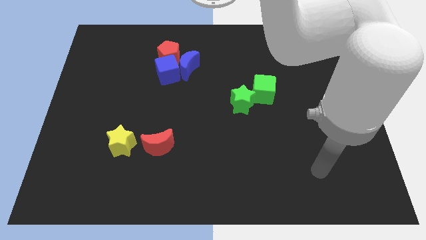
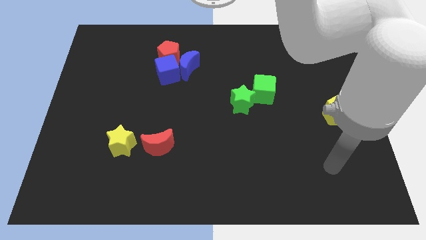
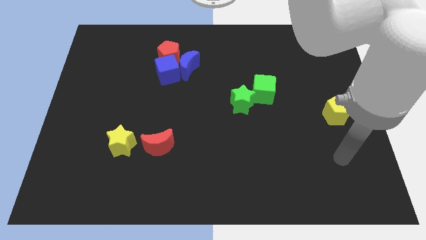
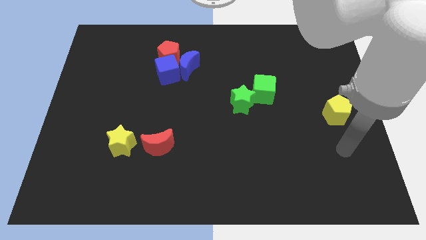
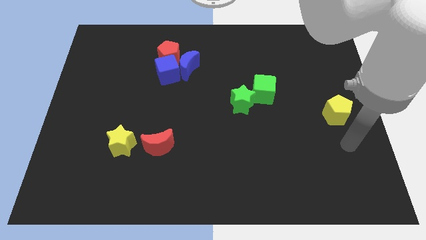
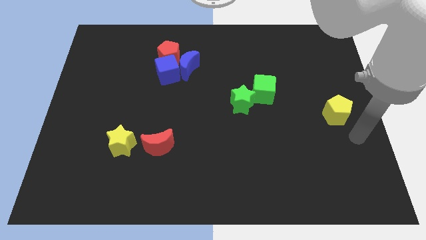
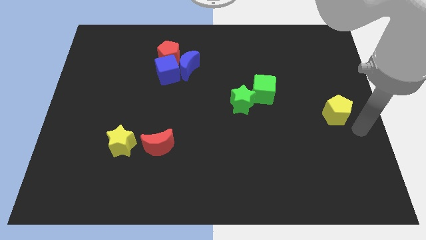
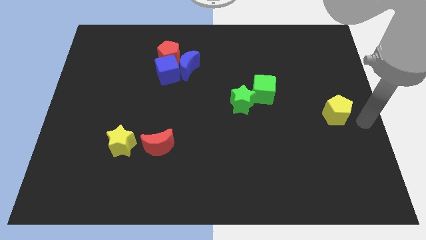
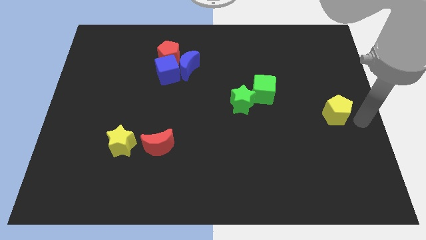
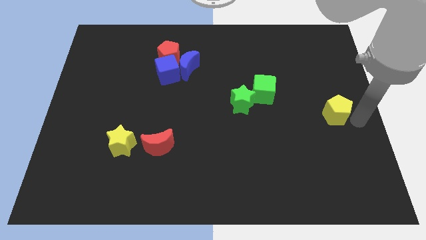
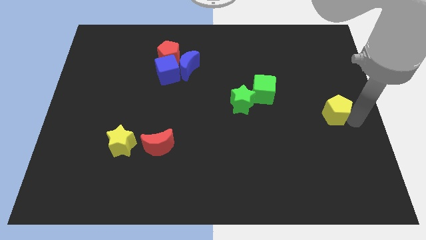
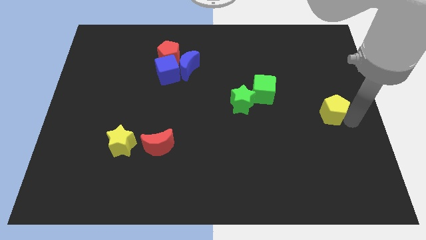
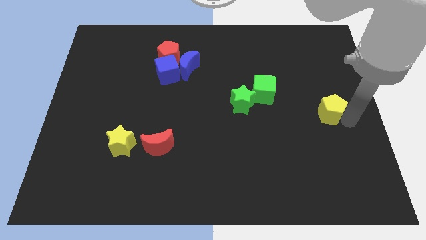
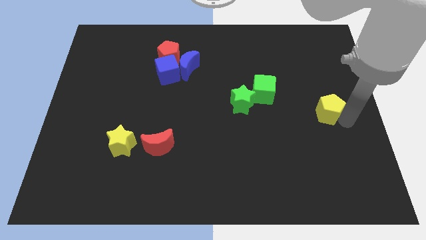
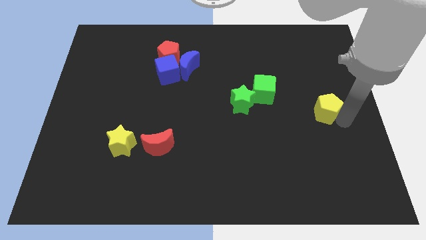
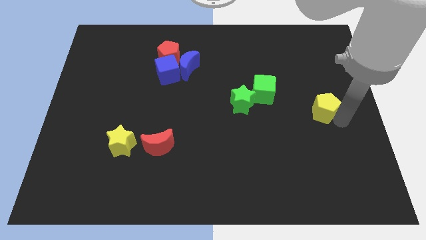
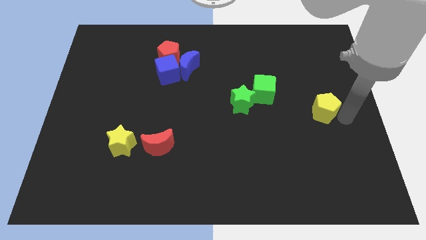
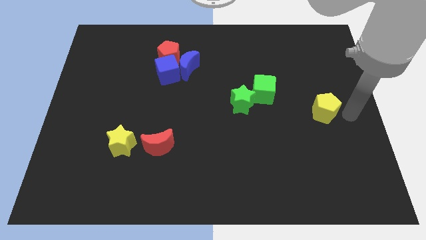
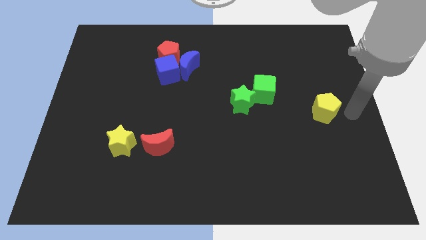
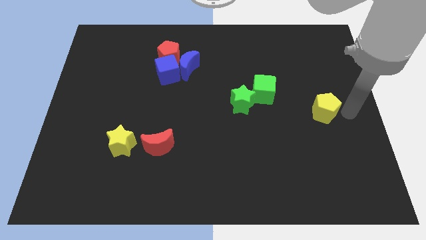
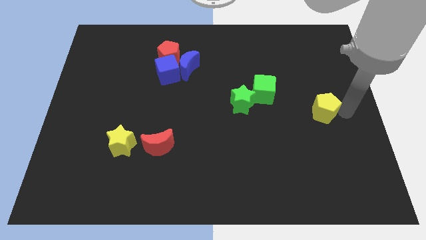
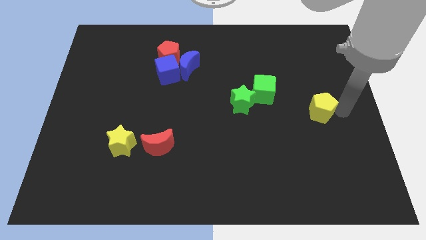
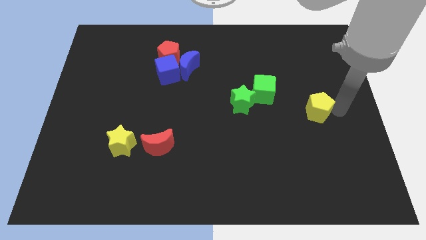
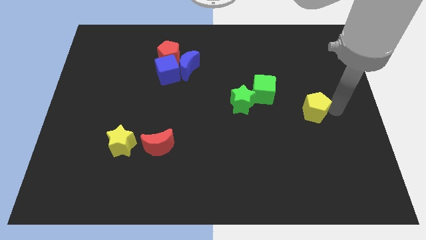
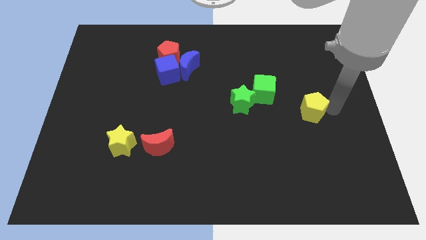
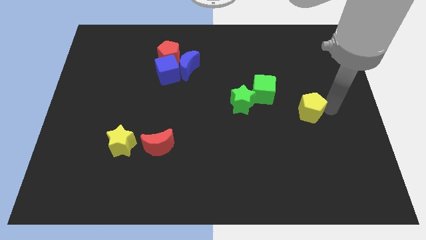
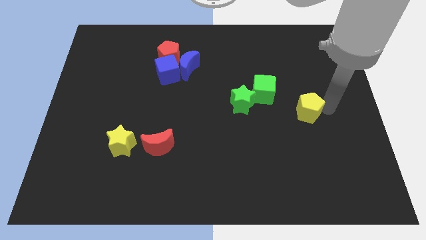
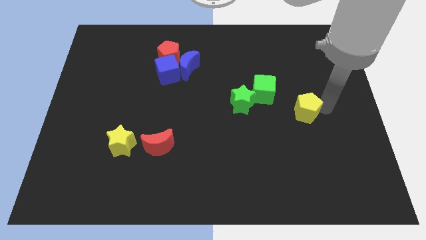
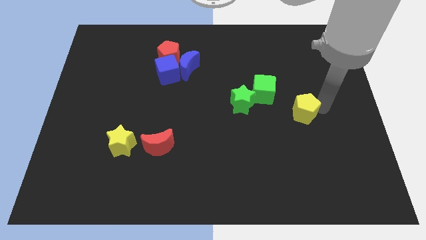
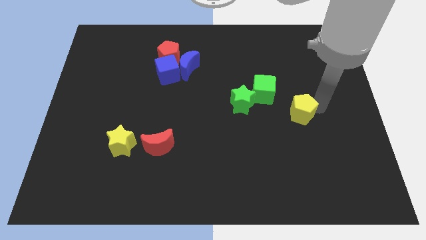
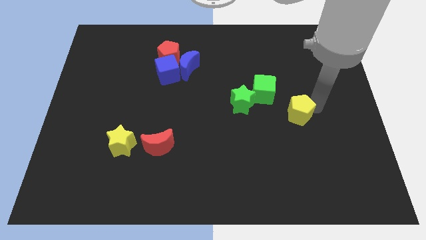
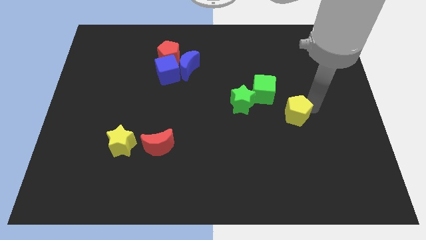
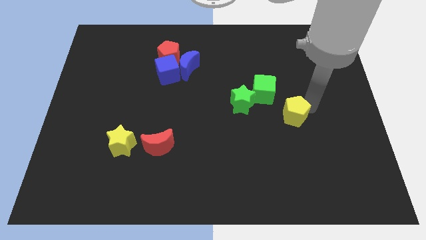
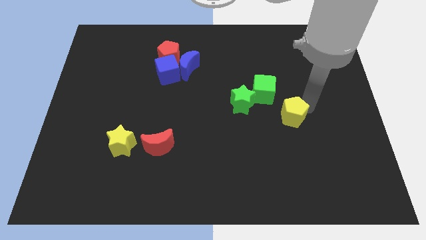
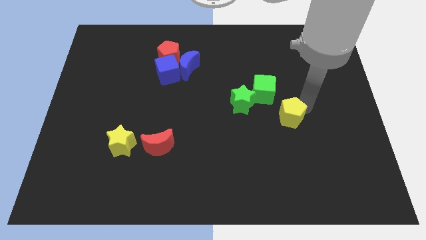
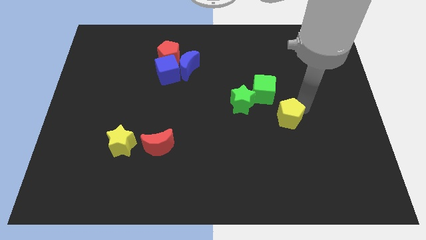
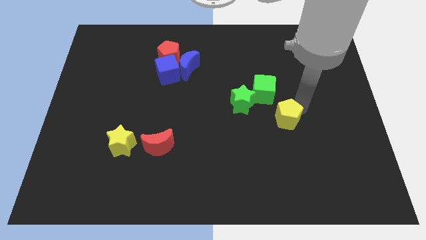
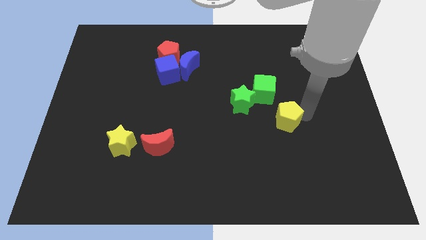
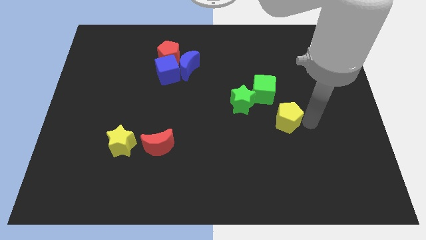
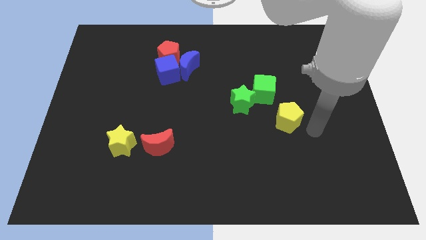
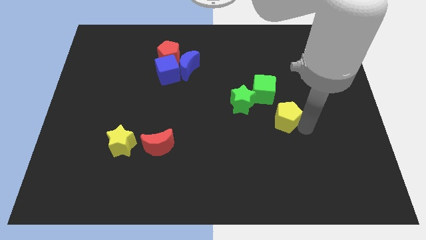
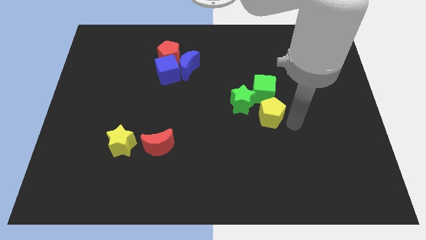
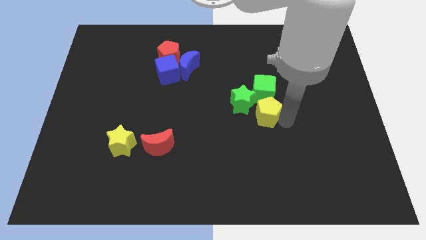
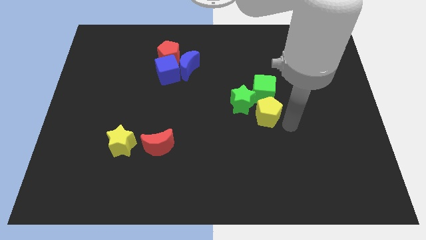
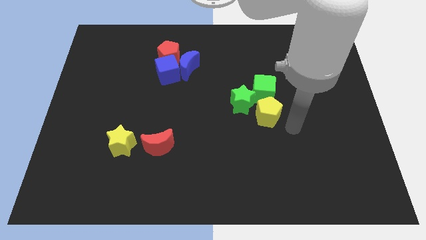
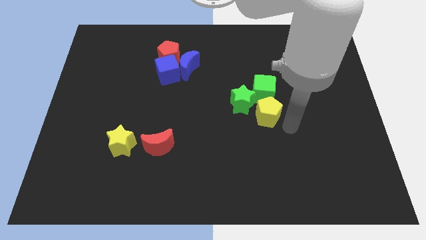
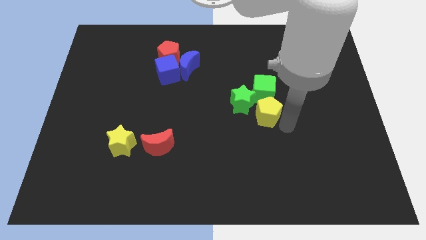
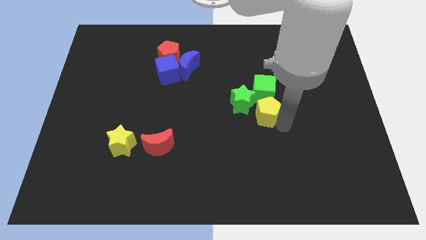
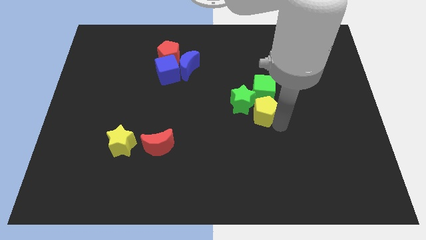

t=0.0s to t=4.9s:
slide the yellow pentagon next to the green star

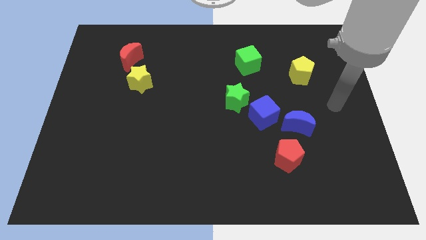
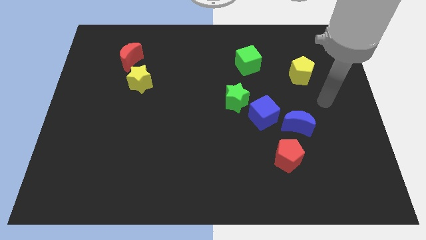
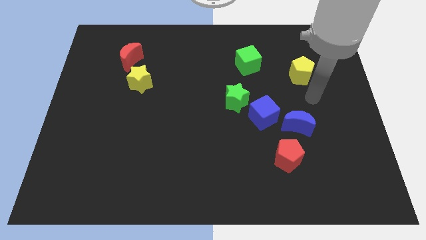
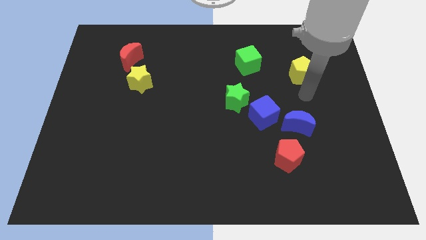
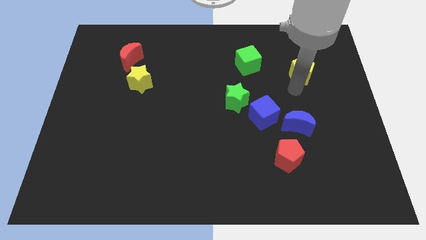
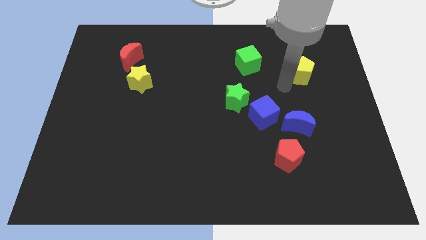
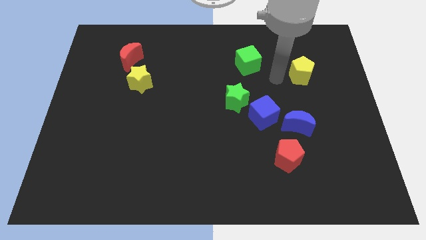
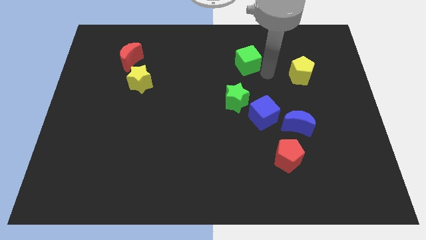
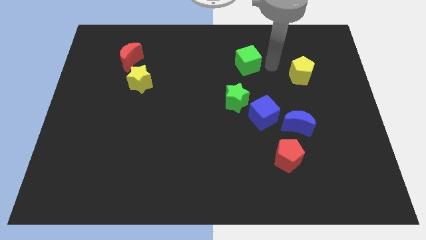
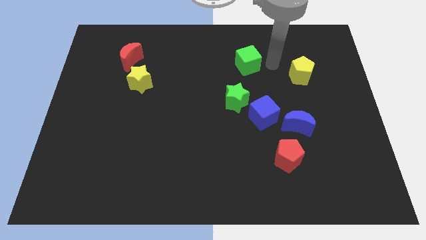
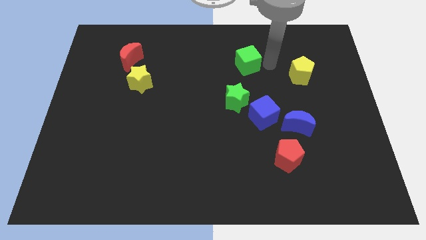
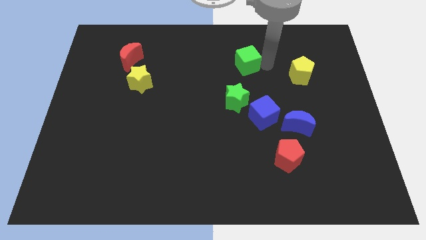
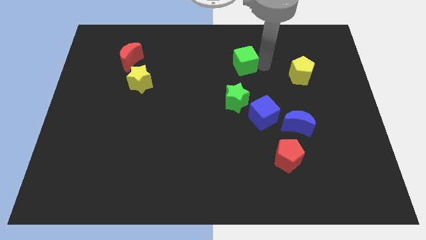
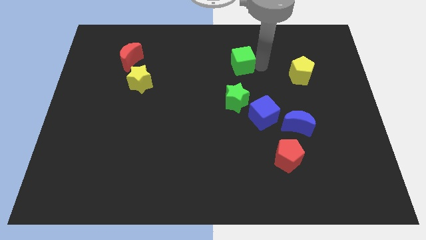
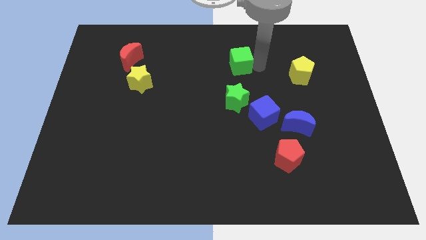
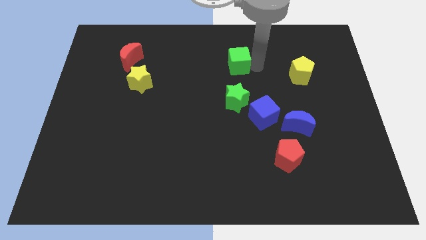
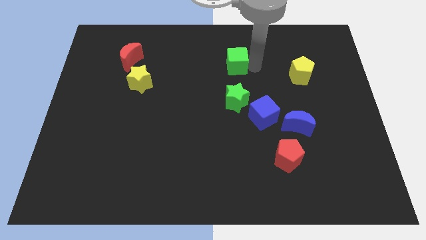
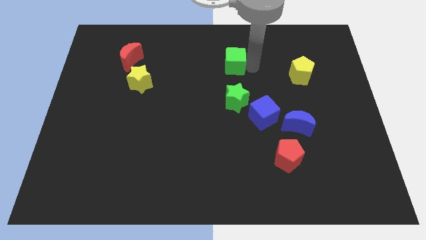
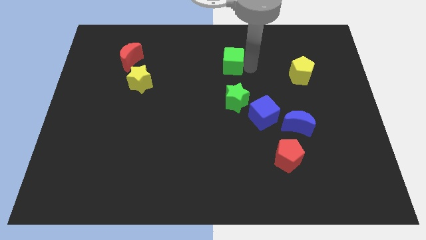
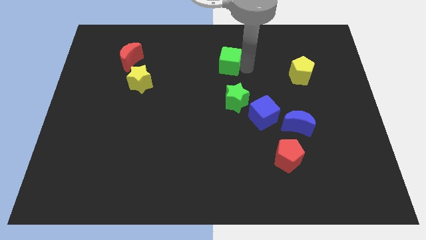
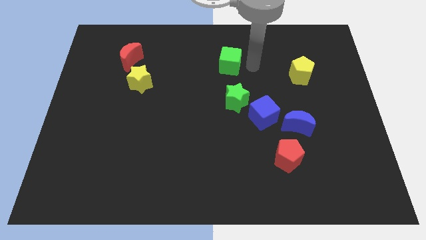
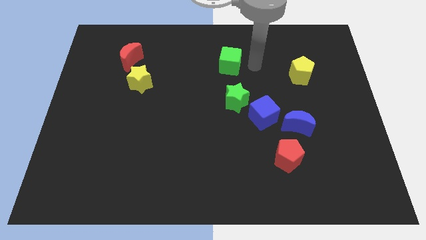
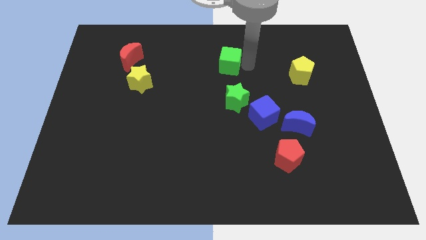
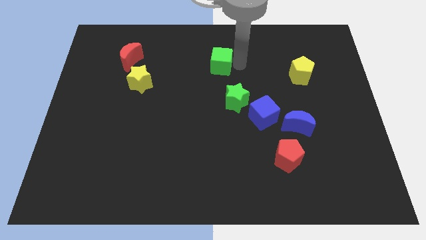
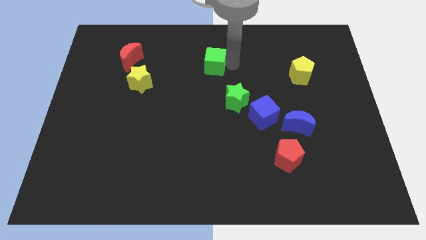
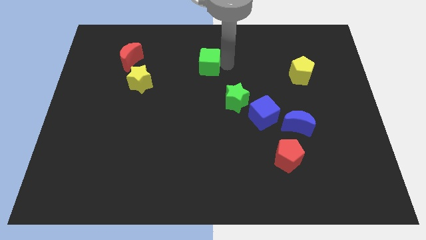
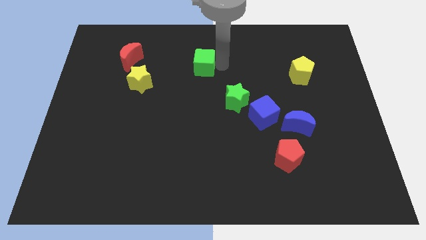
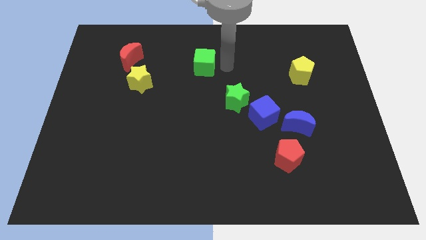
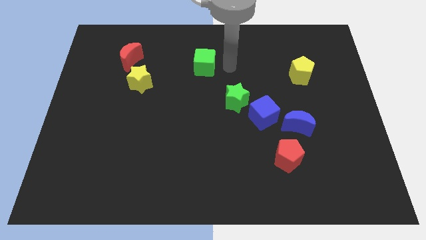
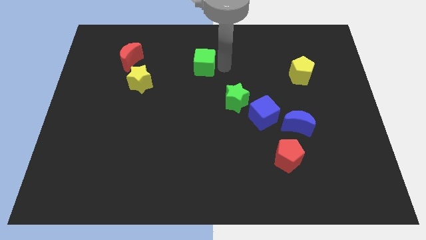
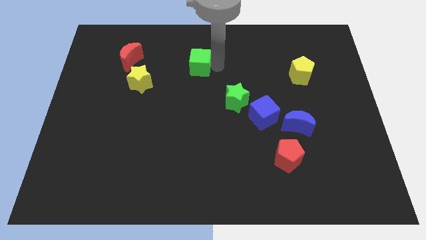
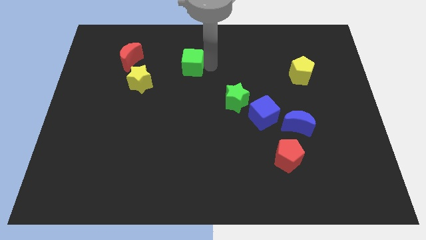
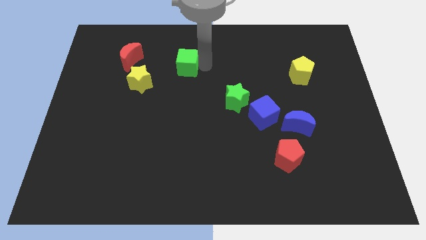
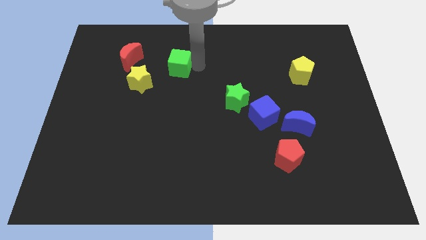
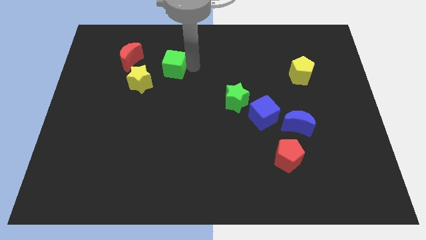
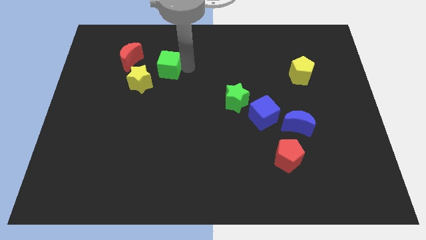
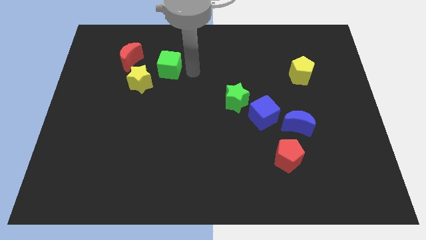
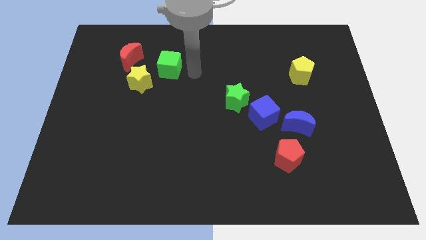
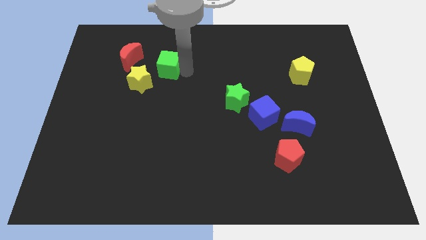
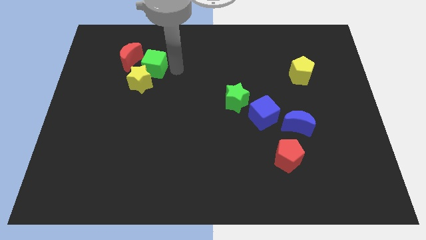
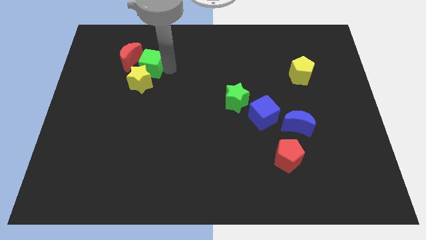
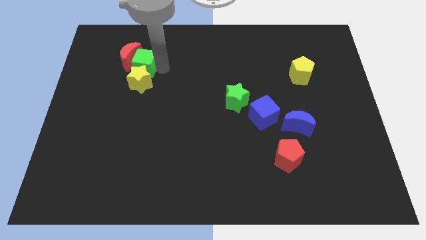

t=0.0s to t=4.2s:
move the green cube towards the red moon
